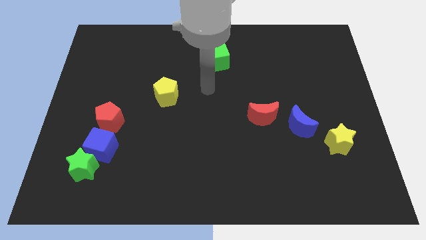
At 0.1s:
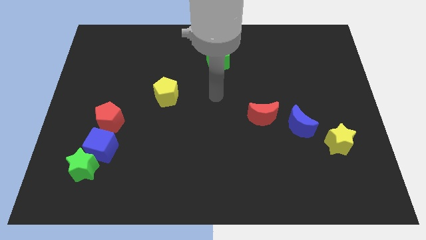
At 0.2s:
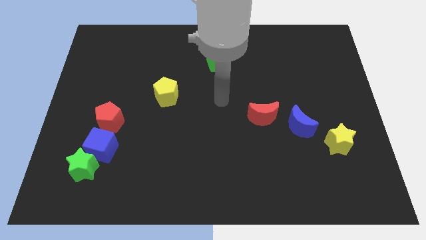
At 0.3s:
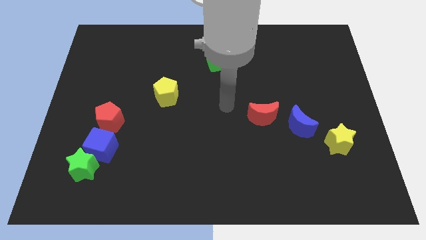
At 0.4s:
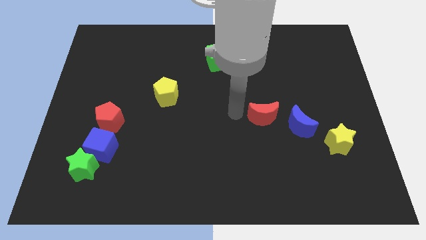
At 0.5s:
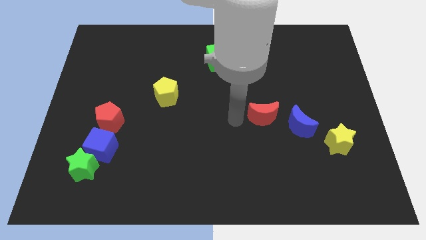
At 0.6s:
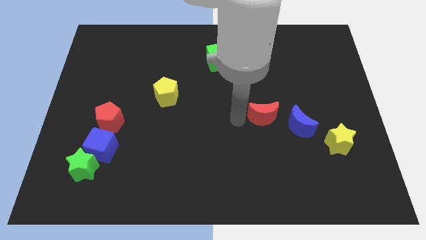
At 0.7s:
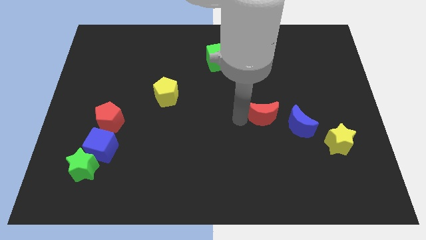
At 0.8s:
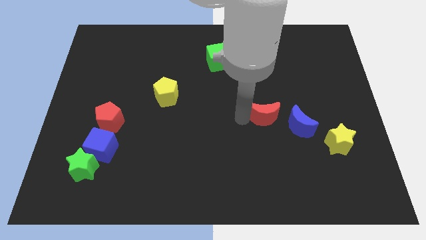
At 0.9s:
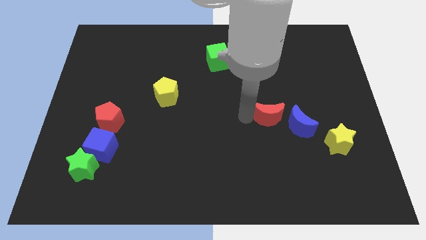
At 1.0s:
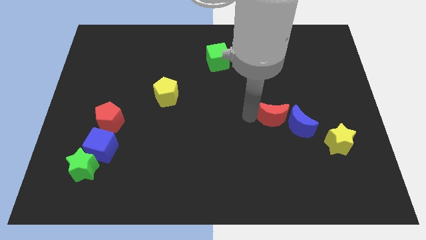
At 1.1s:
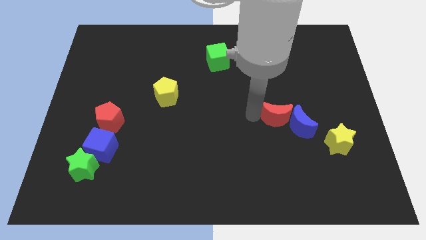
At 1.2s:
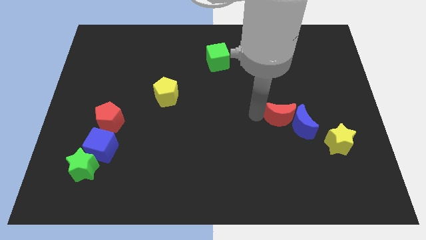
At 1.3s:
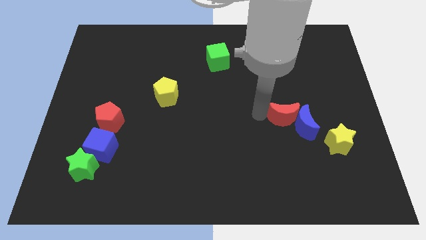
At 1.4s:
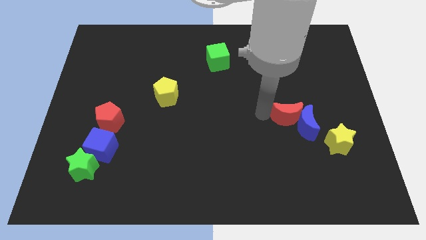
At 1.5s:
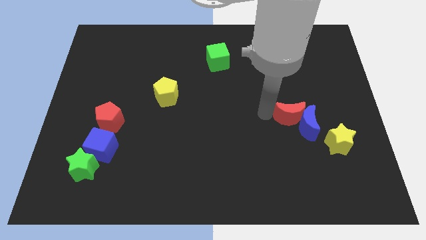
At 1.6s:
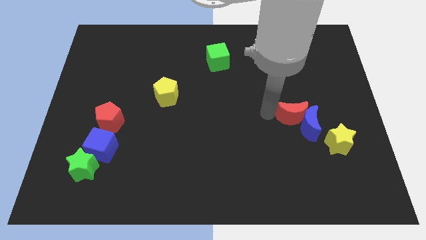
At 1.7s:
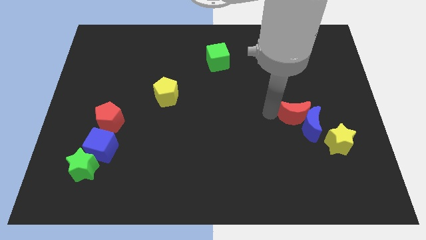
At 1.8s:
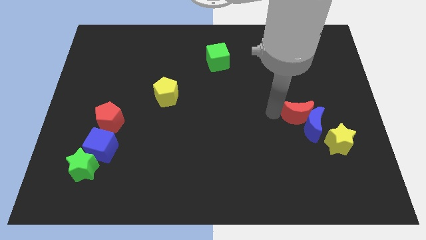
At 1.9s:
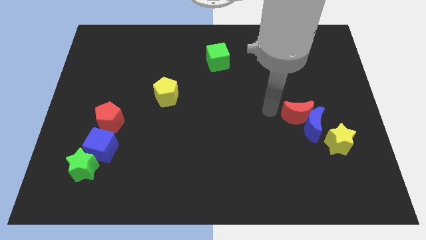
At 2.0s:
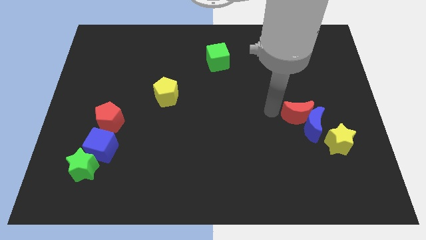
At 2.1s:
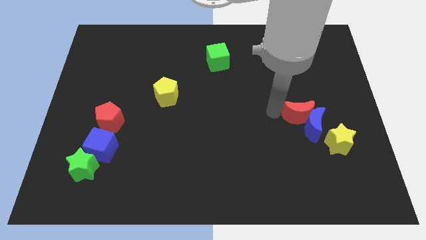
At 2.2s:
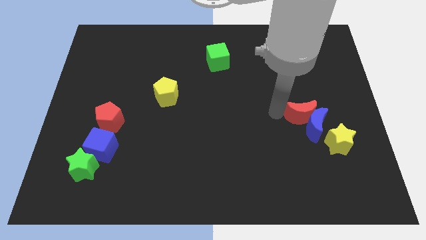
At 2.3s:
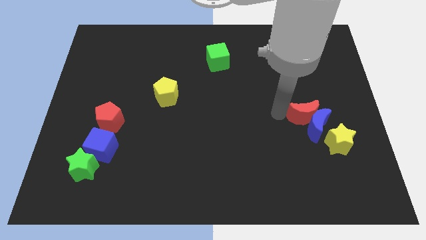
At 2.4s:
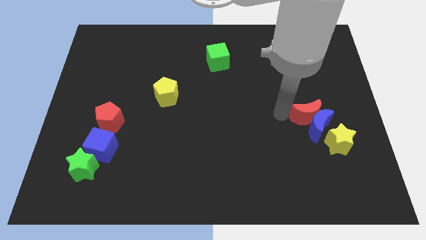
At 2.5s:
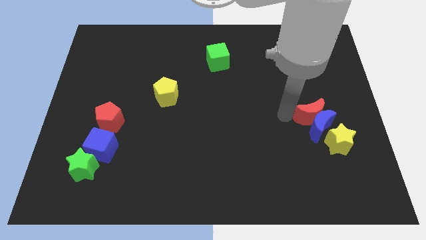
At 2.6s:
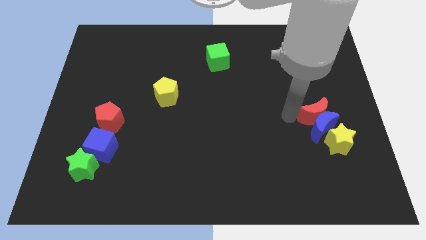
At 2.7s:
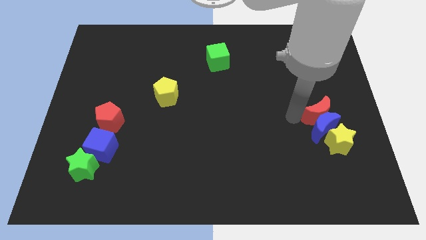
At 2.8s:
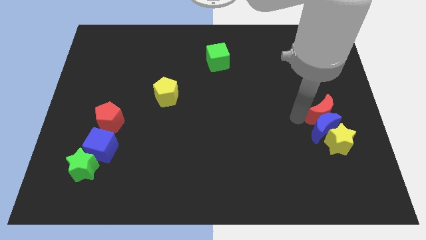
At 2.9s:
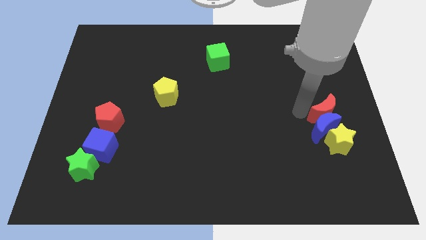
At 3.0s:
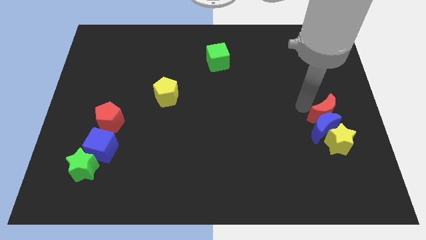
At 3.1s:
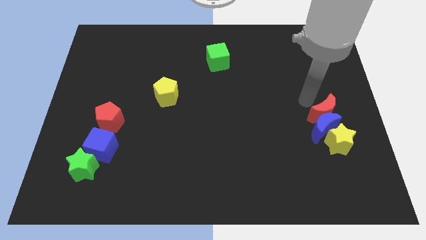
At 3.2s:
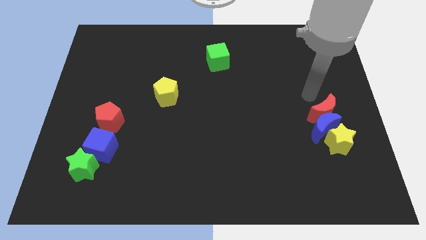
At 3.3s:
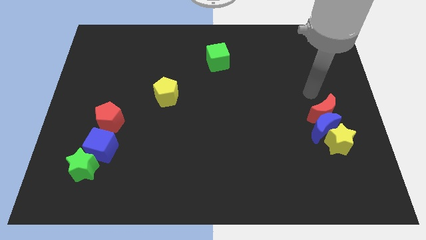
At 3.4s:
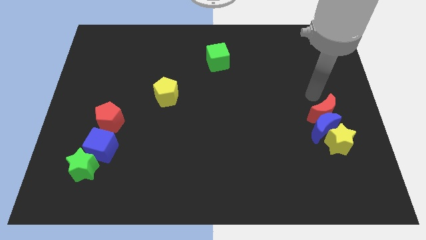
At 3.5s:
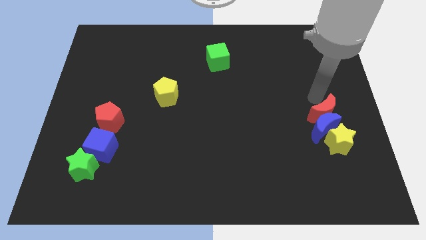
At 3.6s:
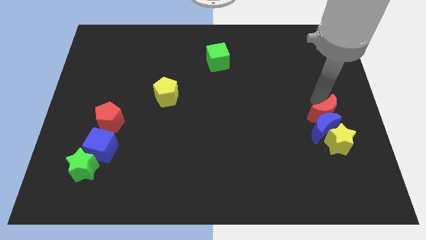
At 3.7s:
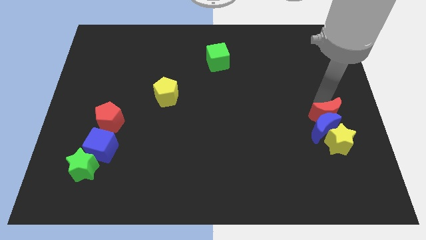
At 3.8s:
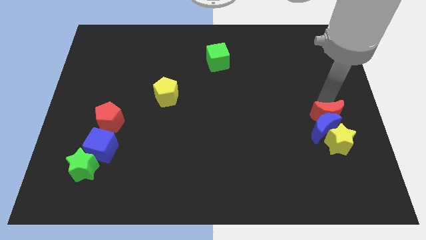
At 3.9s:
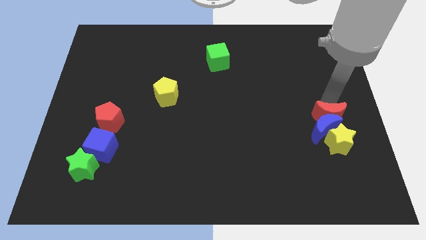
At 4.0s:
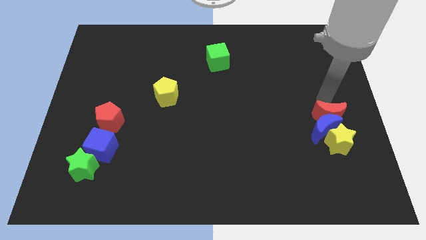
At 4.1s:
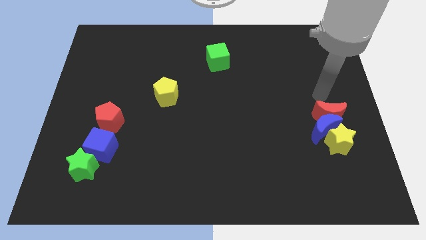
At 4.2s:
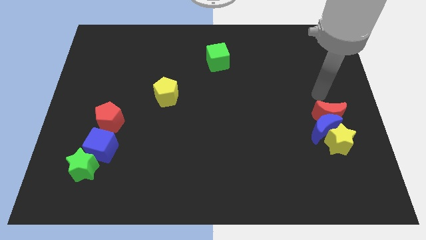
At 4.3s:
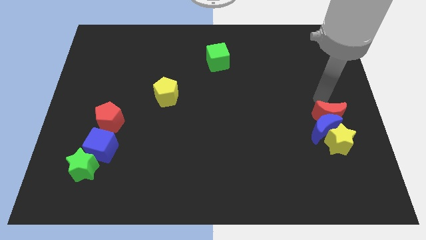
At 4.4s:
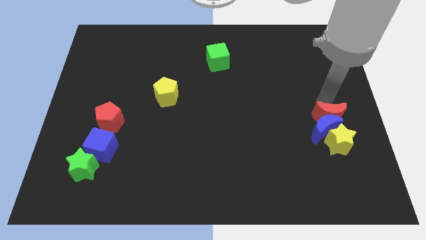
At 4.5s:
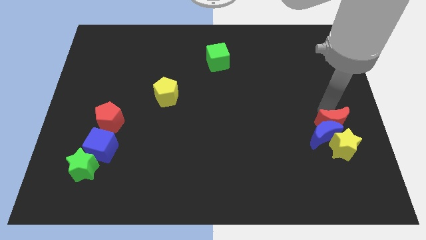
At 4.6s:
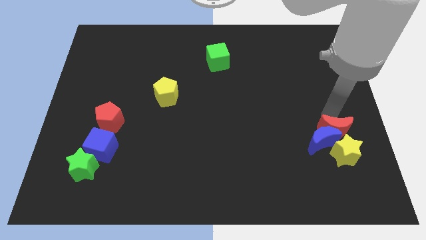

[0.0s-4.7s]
slide the red moon to the yellow star

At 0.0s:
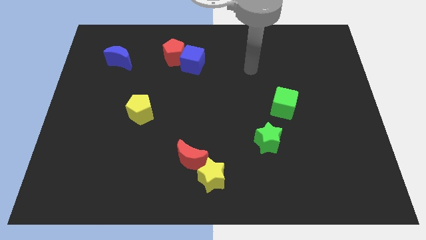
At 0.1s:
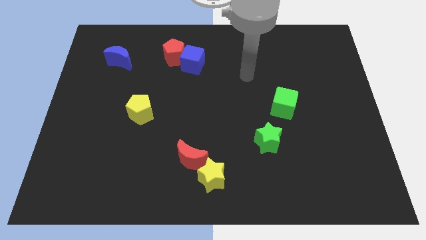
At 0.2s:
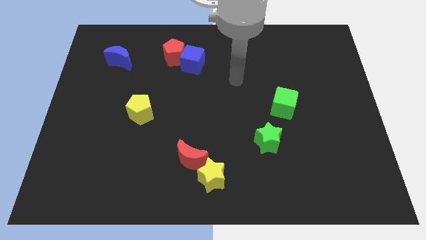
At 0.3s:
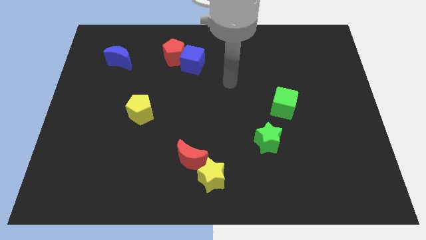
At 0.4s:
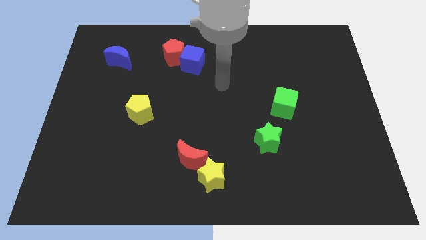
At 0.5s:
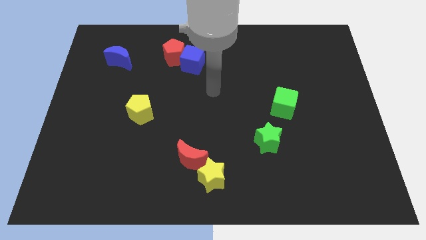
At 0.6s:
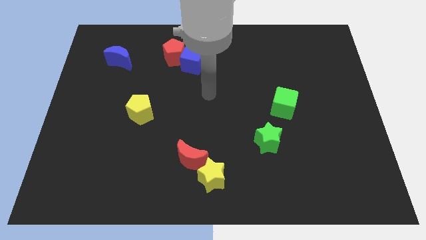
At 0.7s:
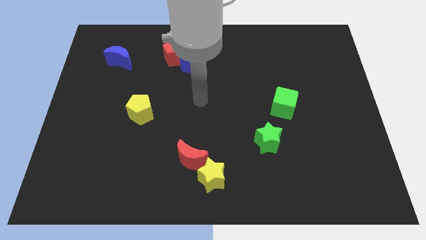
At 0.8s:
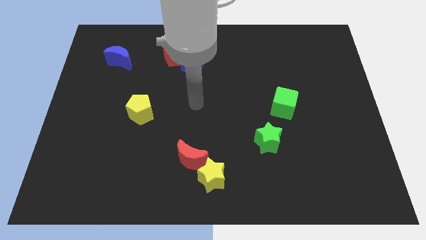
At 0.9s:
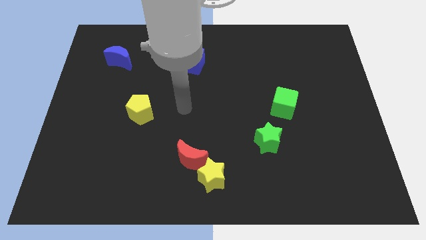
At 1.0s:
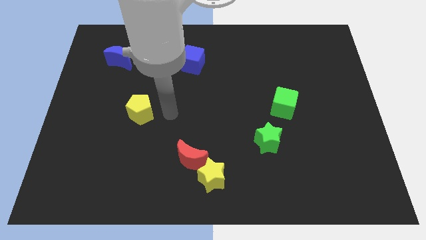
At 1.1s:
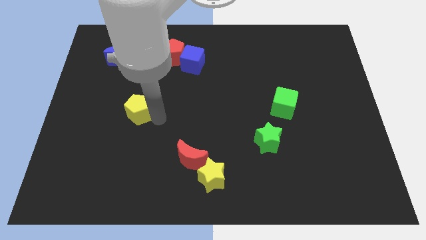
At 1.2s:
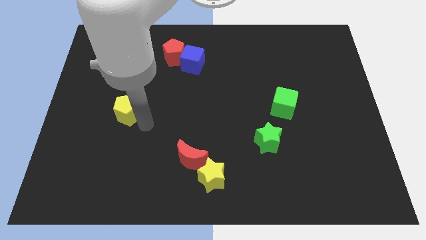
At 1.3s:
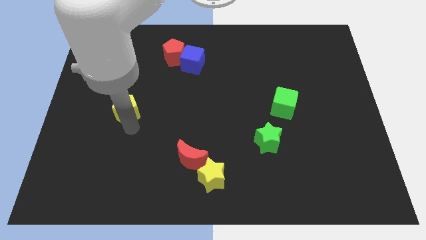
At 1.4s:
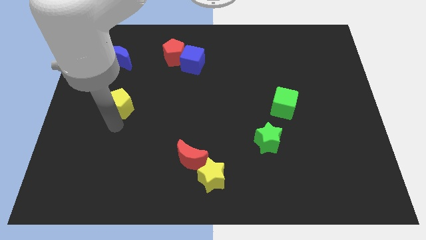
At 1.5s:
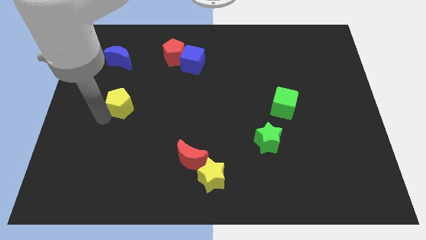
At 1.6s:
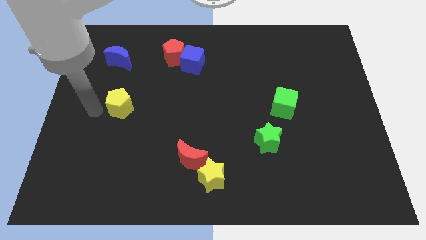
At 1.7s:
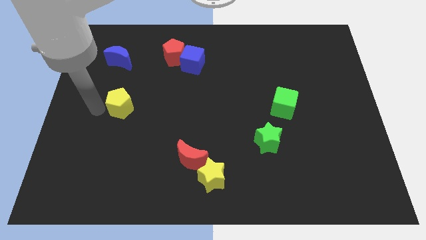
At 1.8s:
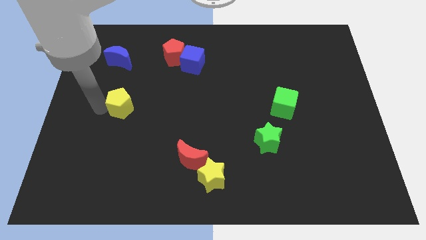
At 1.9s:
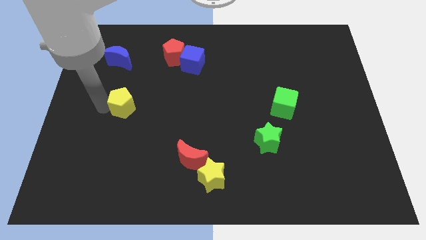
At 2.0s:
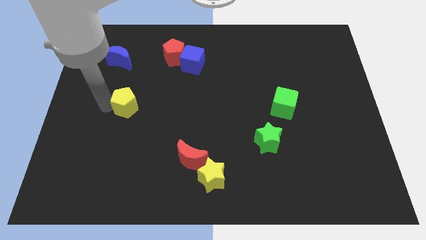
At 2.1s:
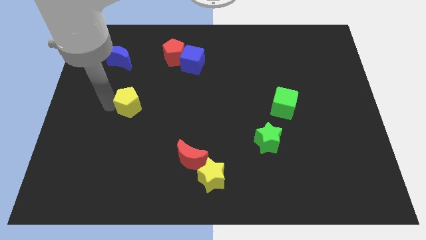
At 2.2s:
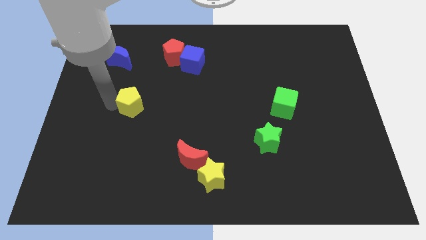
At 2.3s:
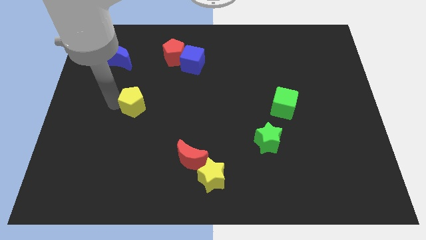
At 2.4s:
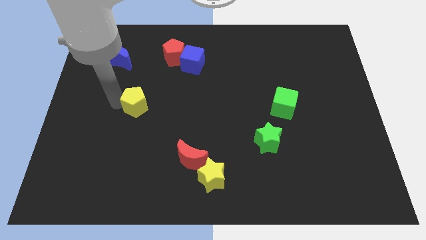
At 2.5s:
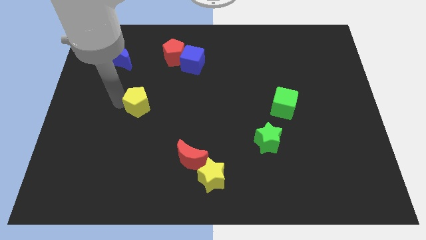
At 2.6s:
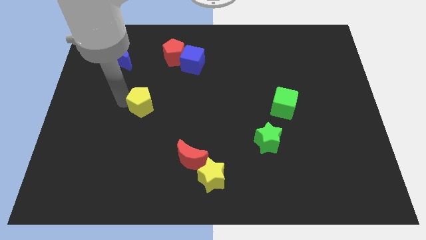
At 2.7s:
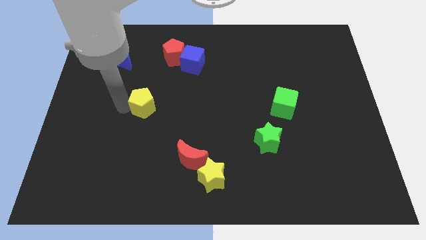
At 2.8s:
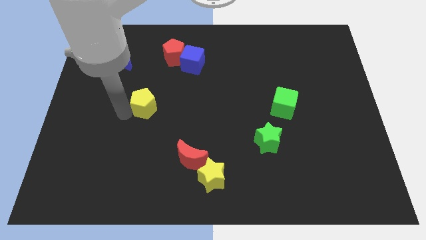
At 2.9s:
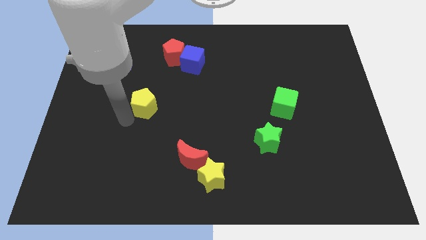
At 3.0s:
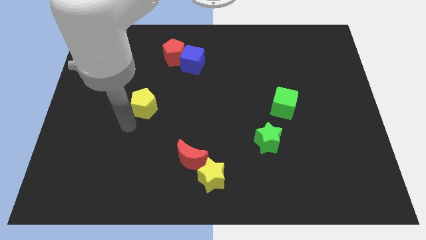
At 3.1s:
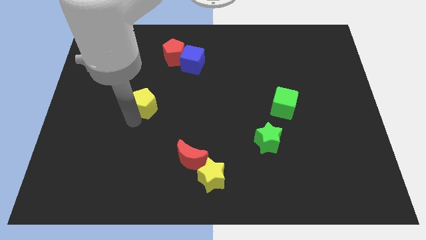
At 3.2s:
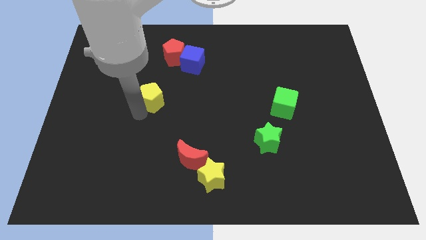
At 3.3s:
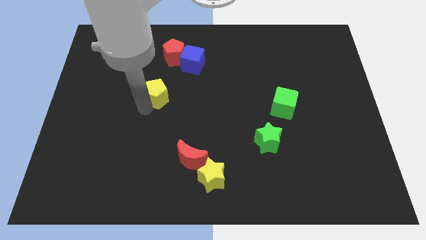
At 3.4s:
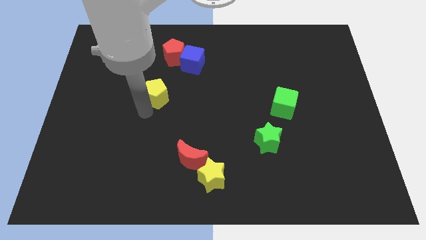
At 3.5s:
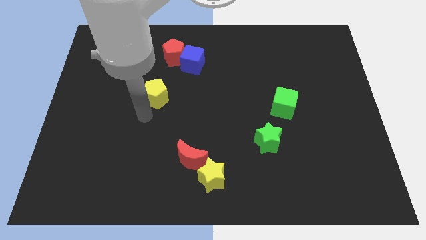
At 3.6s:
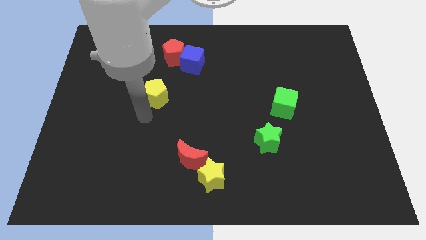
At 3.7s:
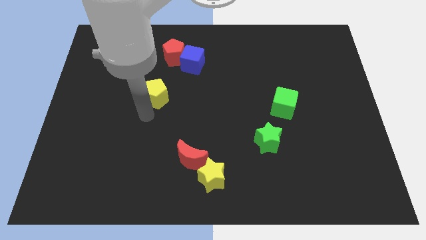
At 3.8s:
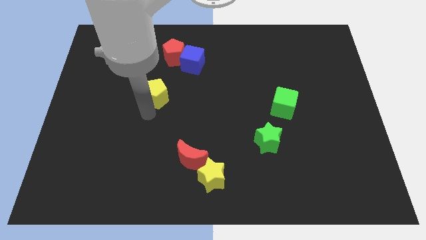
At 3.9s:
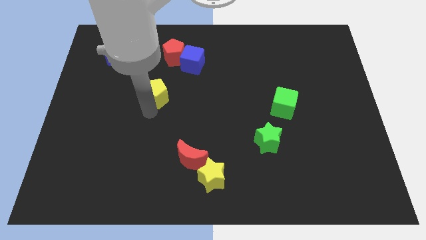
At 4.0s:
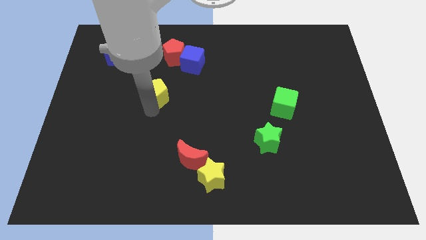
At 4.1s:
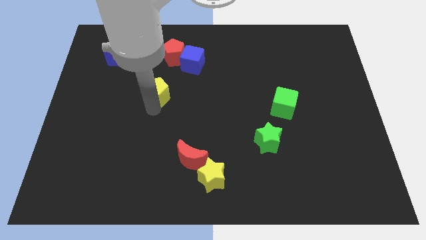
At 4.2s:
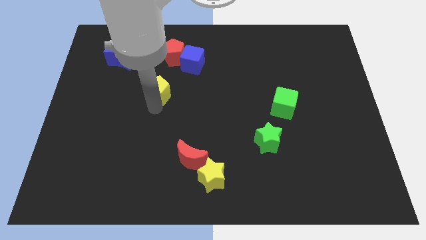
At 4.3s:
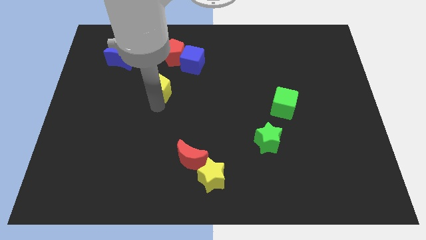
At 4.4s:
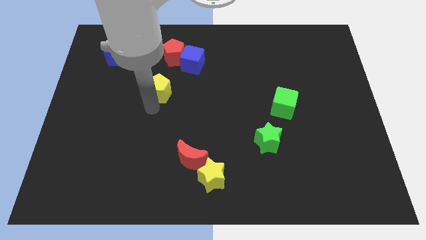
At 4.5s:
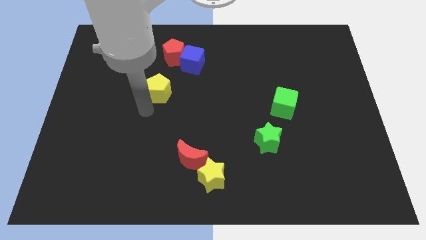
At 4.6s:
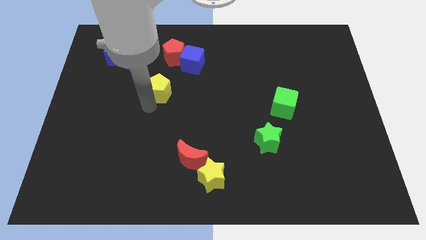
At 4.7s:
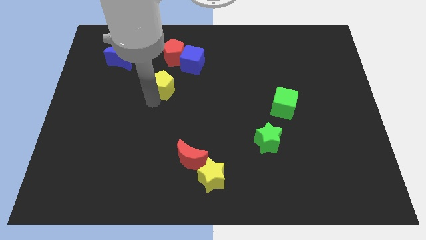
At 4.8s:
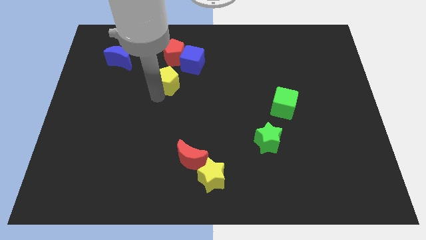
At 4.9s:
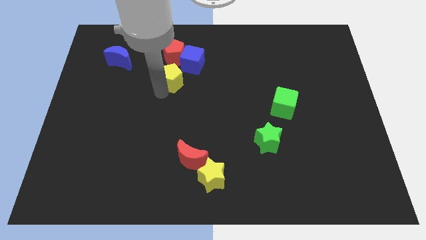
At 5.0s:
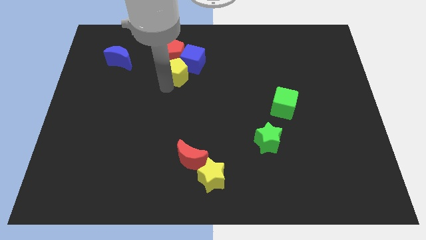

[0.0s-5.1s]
put the yellow pentagon towards the blue cube
